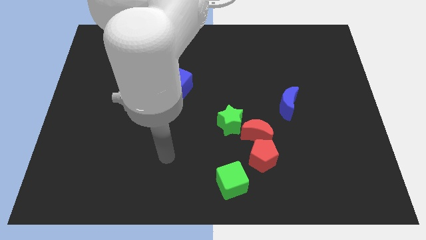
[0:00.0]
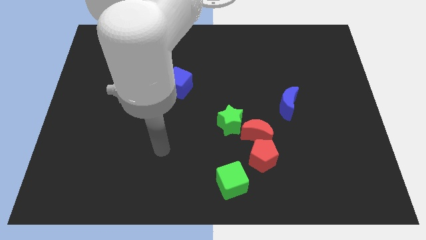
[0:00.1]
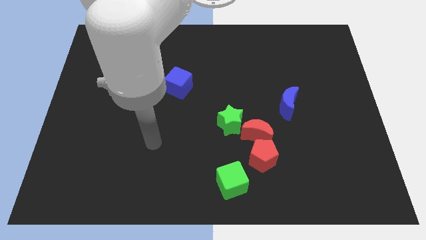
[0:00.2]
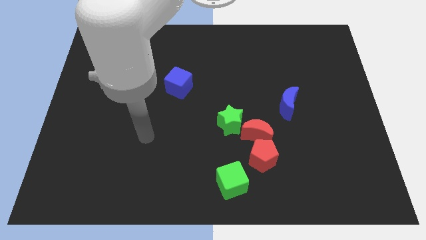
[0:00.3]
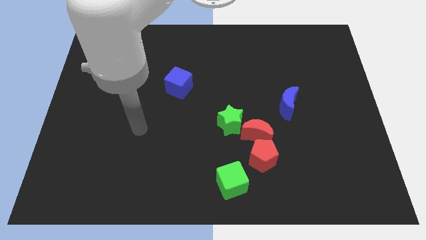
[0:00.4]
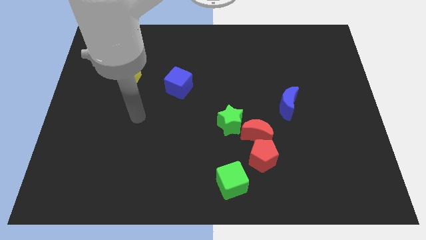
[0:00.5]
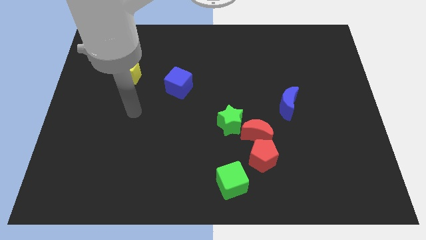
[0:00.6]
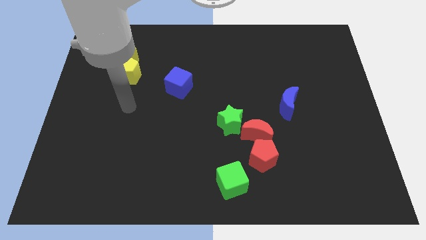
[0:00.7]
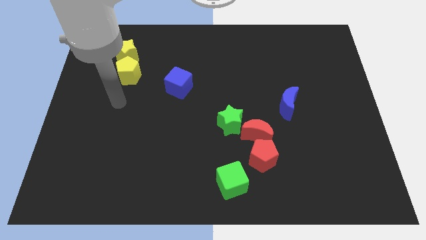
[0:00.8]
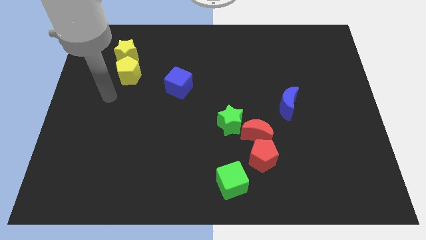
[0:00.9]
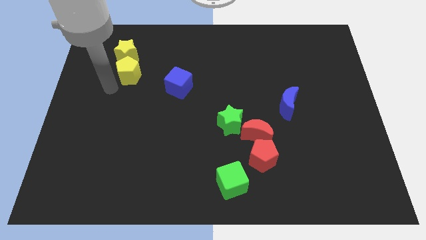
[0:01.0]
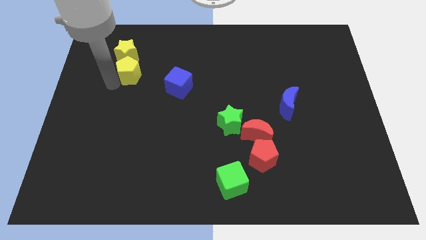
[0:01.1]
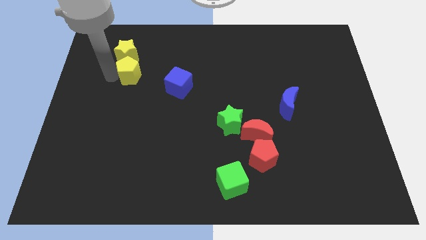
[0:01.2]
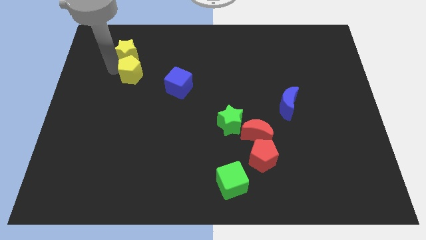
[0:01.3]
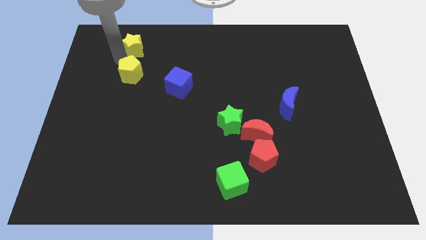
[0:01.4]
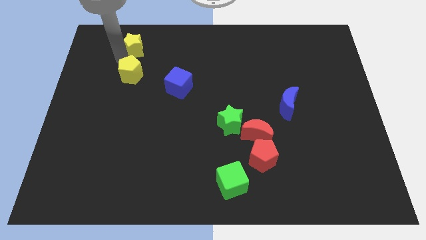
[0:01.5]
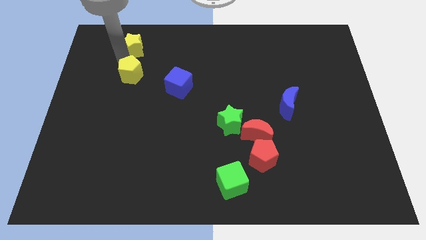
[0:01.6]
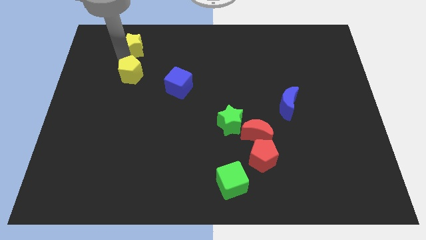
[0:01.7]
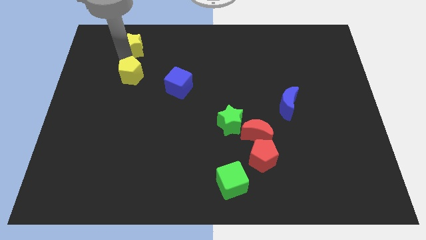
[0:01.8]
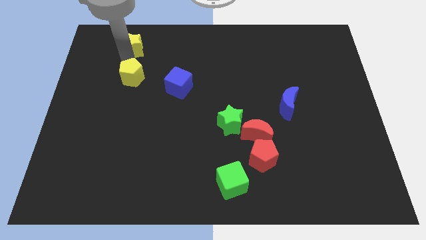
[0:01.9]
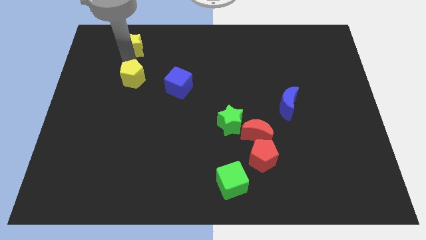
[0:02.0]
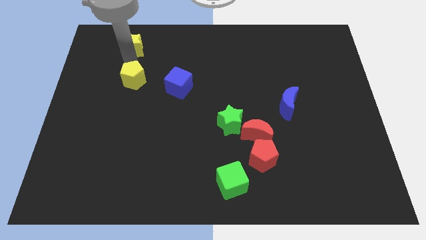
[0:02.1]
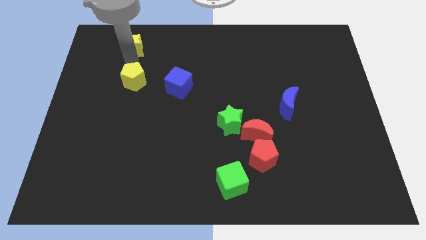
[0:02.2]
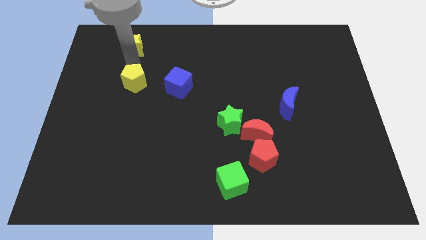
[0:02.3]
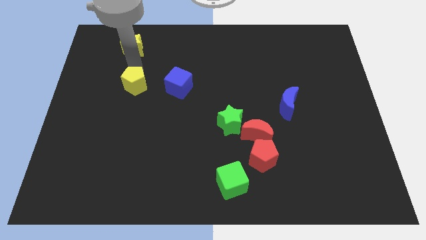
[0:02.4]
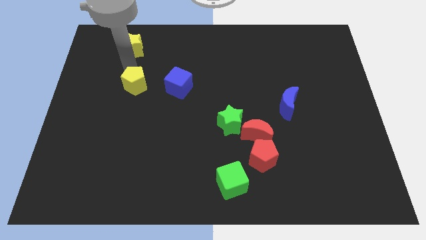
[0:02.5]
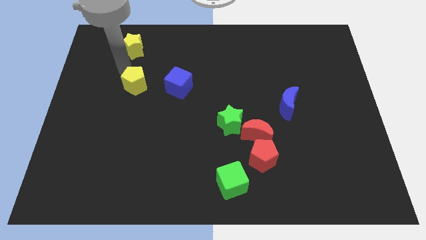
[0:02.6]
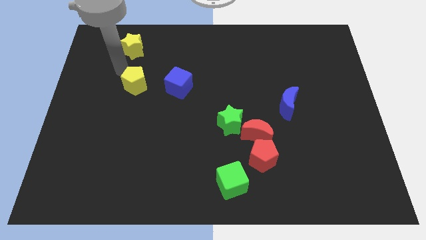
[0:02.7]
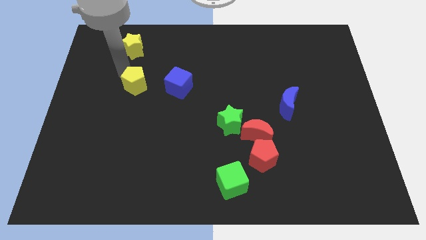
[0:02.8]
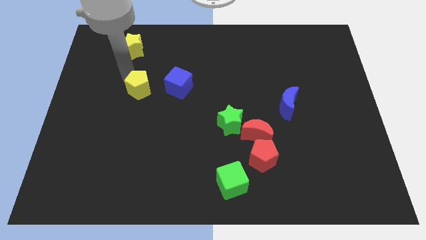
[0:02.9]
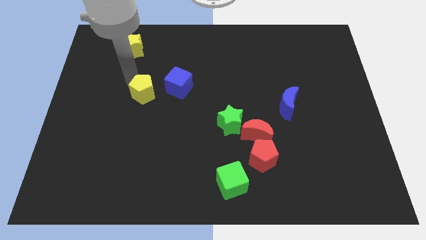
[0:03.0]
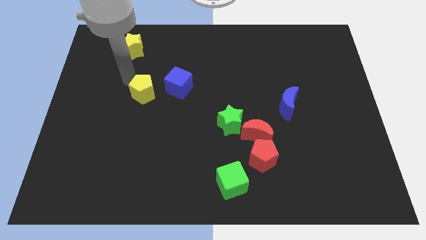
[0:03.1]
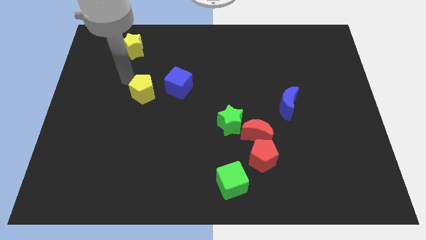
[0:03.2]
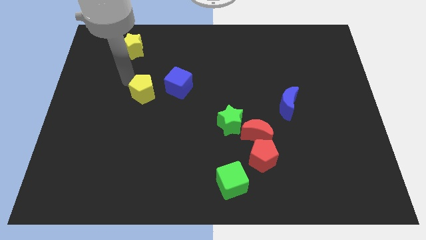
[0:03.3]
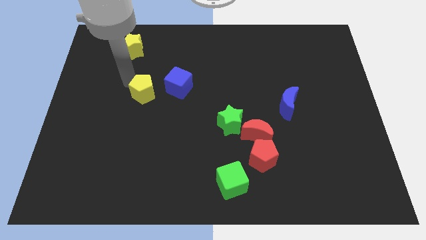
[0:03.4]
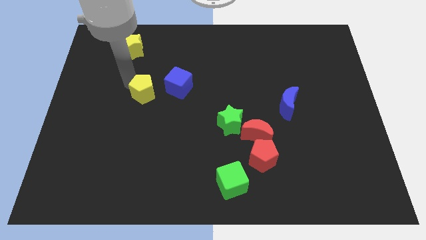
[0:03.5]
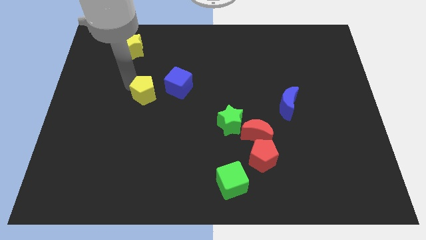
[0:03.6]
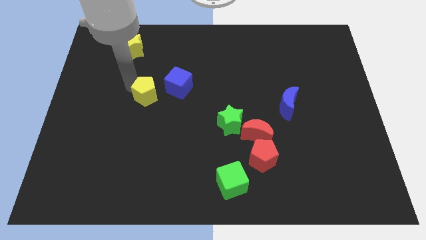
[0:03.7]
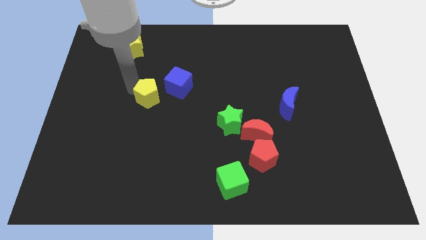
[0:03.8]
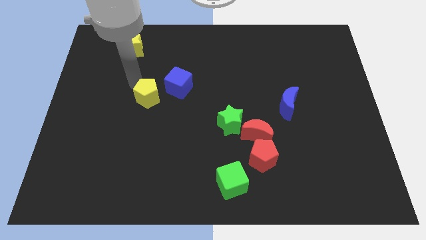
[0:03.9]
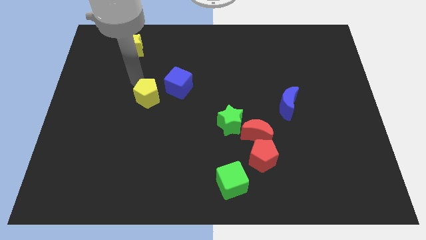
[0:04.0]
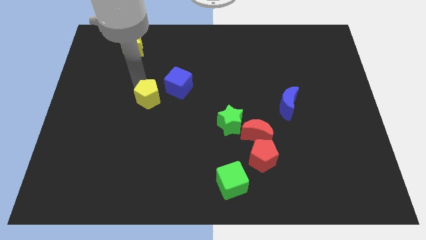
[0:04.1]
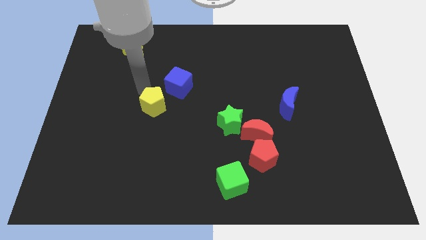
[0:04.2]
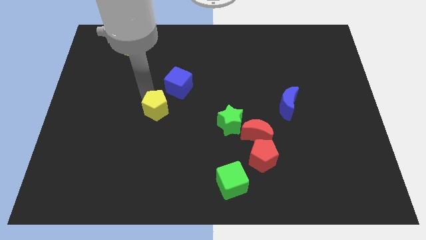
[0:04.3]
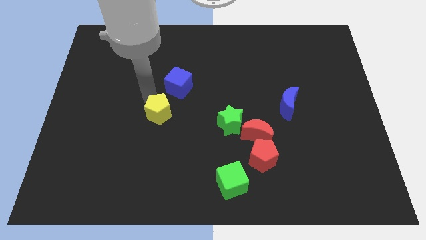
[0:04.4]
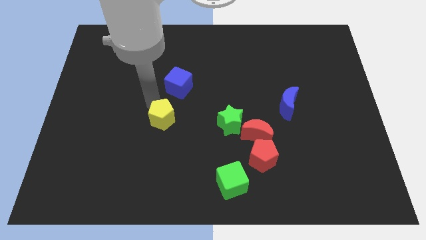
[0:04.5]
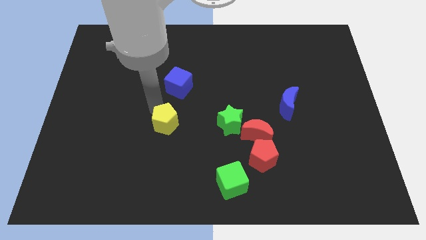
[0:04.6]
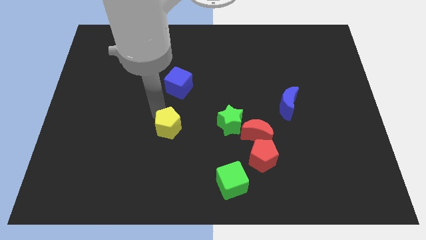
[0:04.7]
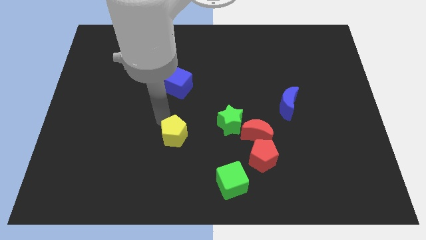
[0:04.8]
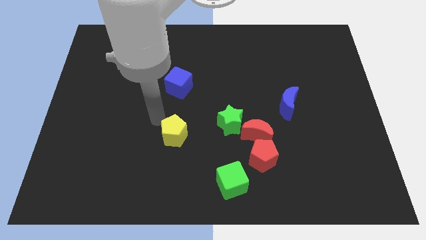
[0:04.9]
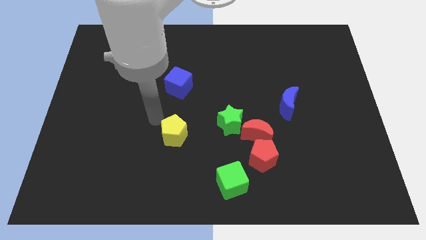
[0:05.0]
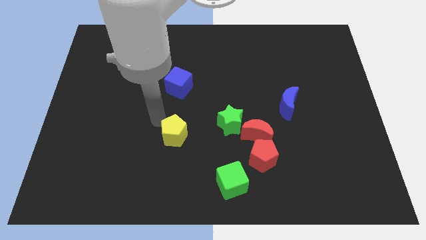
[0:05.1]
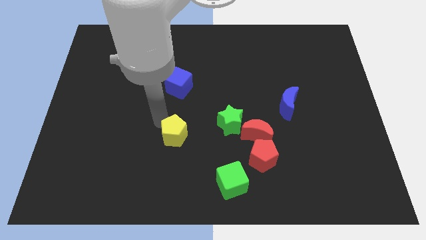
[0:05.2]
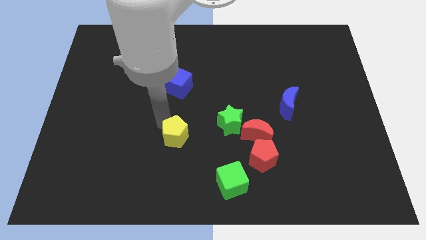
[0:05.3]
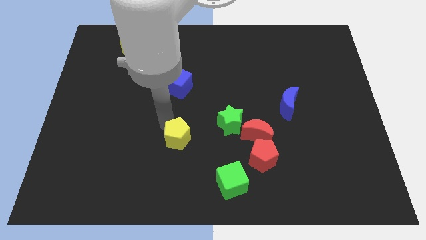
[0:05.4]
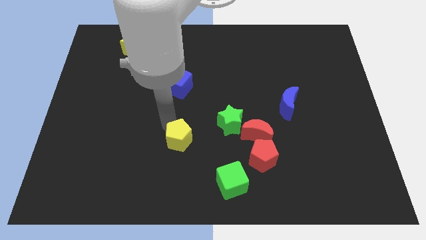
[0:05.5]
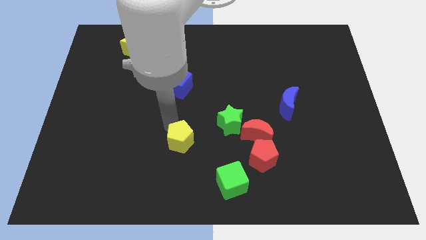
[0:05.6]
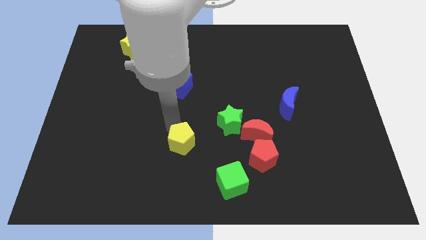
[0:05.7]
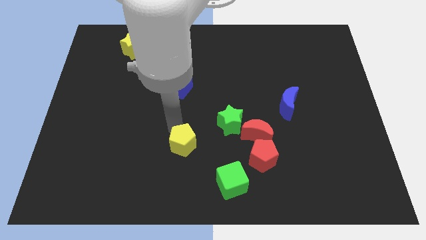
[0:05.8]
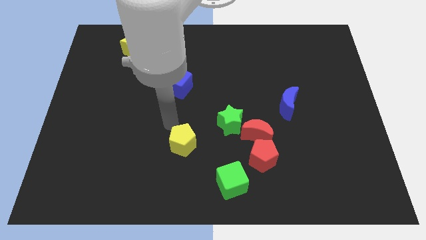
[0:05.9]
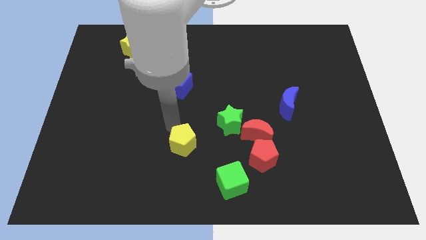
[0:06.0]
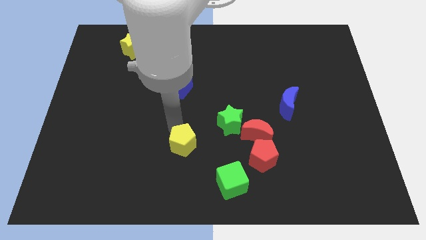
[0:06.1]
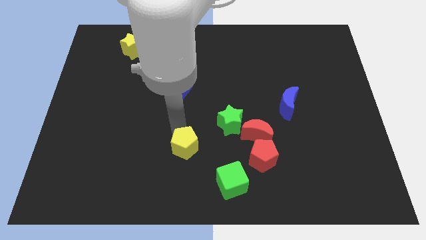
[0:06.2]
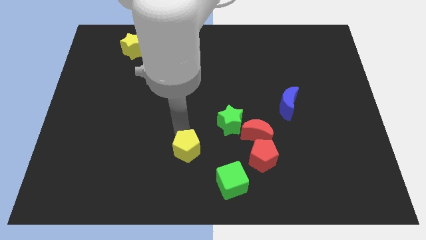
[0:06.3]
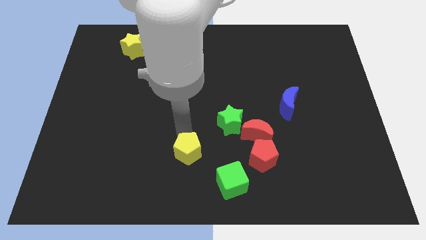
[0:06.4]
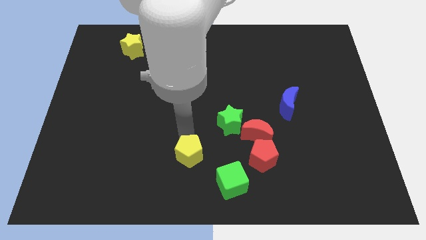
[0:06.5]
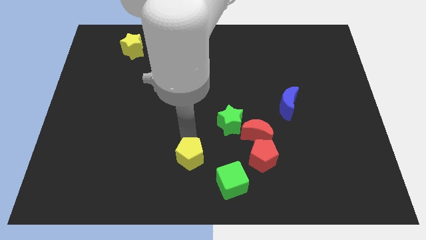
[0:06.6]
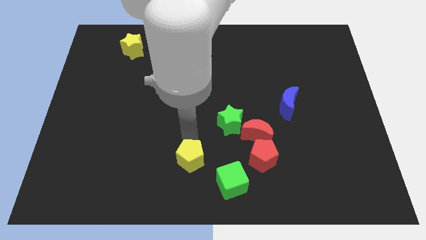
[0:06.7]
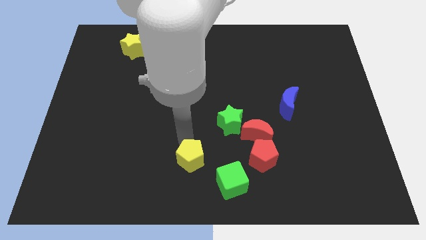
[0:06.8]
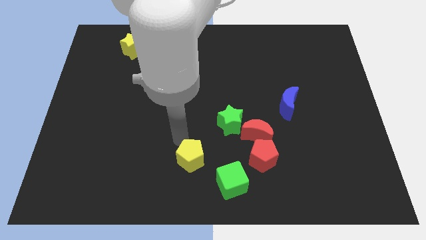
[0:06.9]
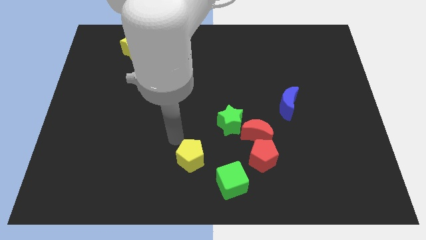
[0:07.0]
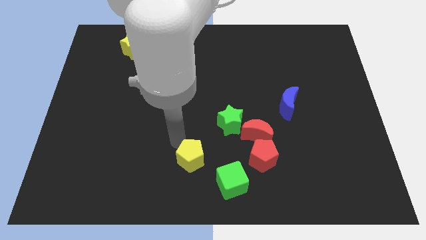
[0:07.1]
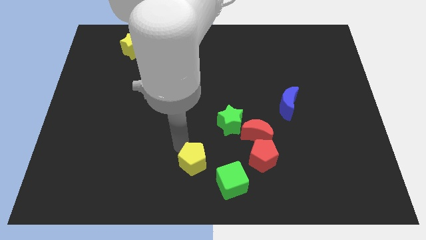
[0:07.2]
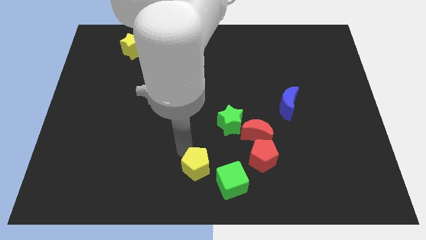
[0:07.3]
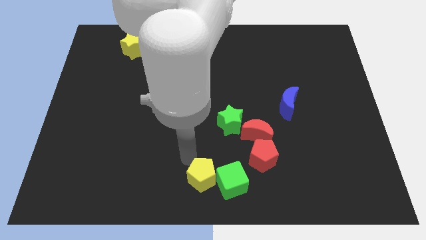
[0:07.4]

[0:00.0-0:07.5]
put the yellow pentagon to the green cube

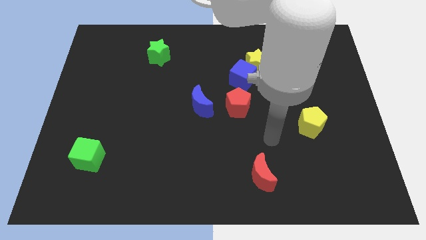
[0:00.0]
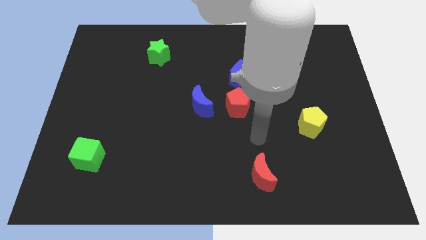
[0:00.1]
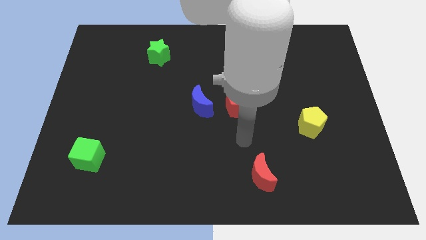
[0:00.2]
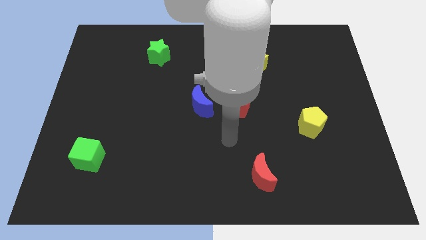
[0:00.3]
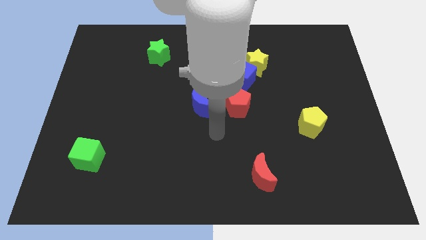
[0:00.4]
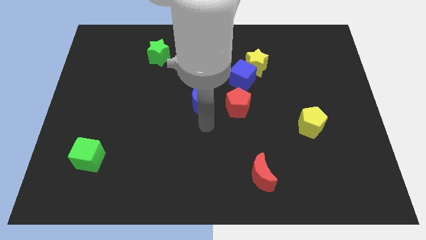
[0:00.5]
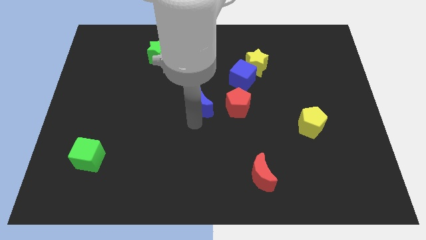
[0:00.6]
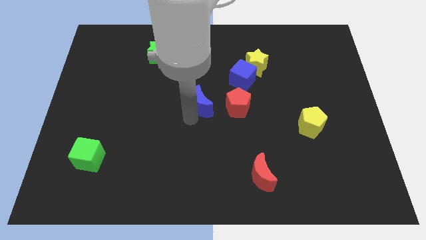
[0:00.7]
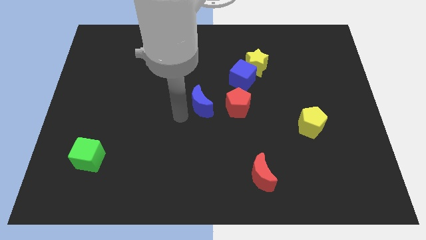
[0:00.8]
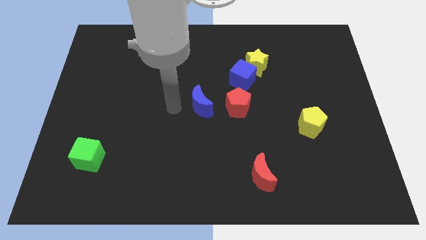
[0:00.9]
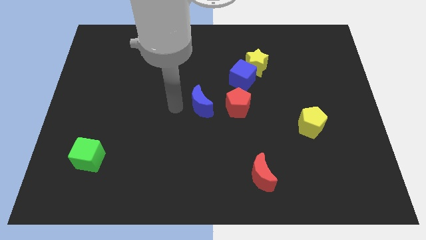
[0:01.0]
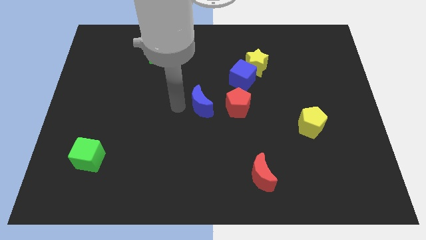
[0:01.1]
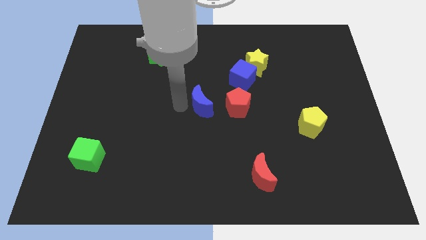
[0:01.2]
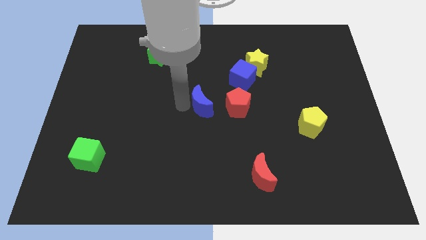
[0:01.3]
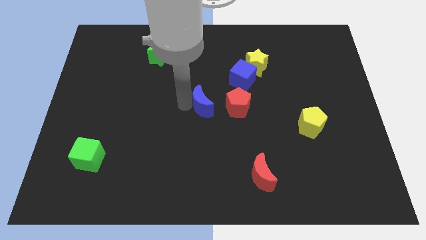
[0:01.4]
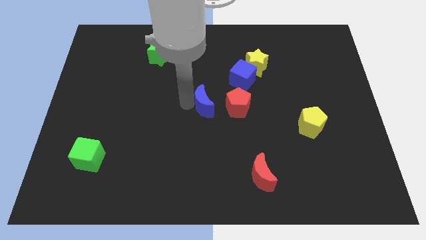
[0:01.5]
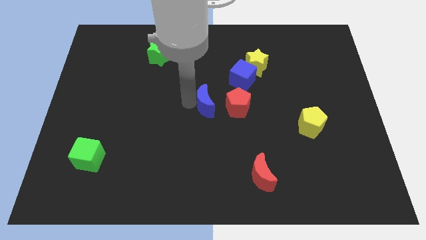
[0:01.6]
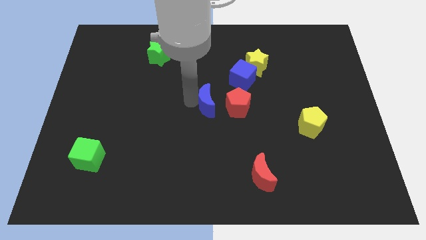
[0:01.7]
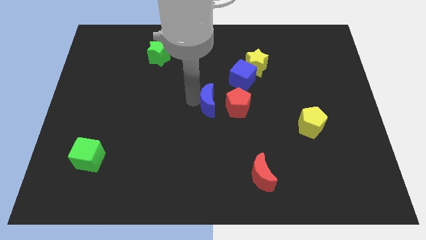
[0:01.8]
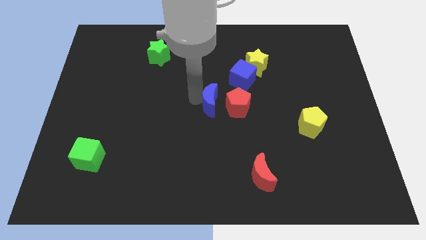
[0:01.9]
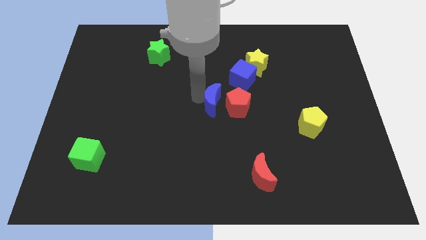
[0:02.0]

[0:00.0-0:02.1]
move the blue moon to the red pentagon
